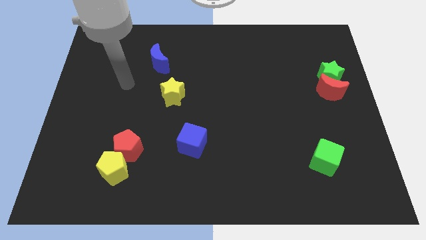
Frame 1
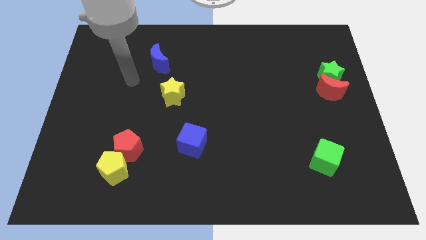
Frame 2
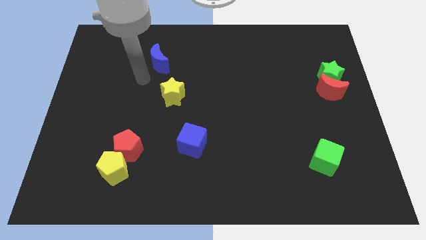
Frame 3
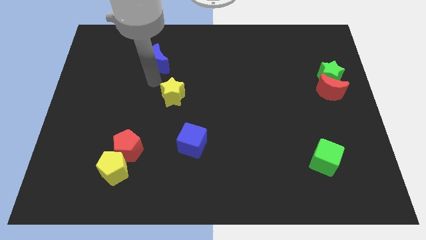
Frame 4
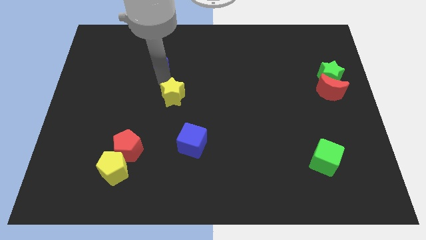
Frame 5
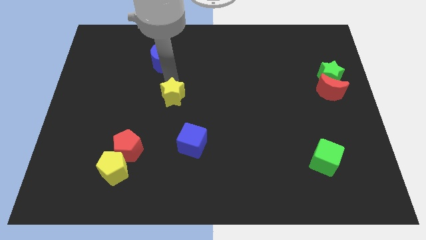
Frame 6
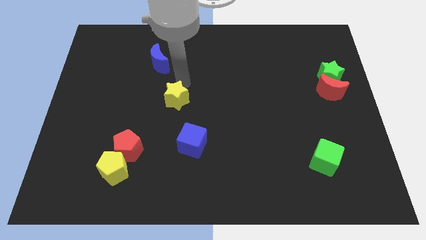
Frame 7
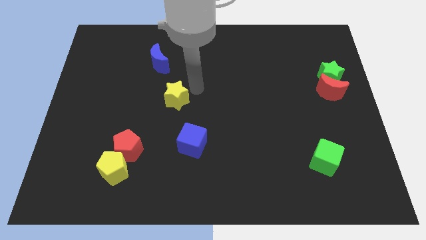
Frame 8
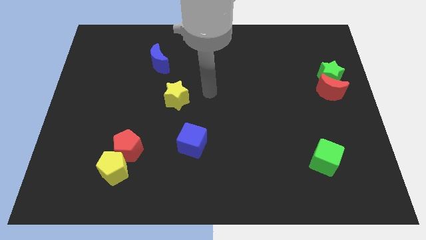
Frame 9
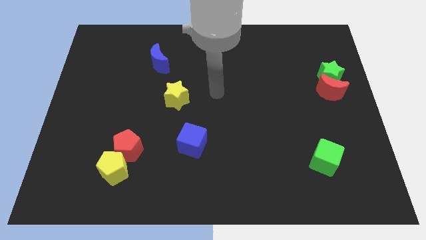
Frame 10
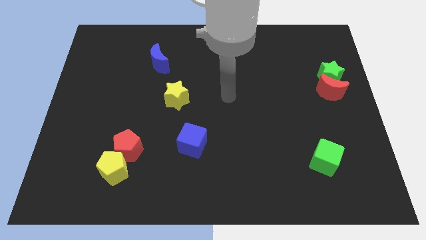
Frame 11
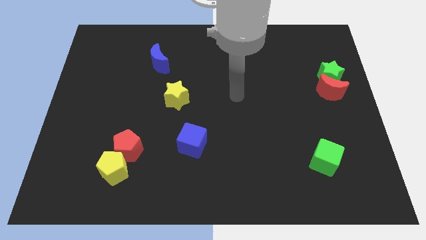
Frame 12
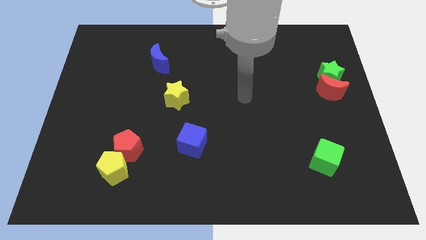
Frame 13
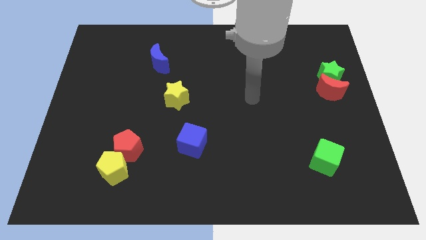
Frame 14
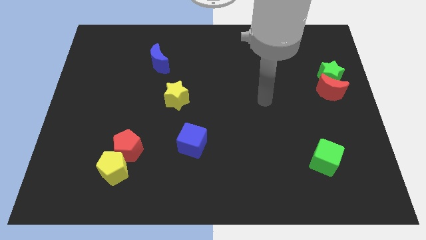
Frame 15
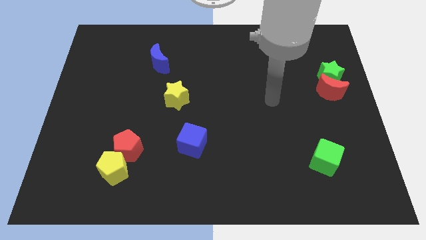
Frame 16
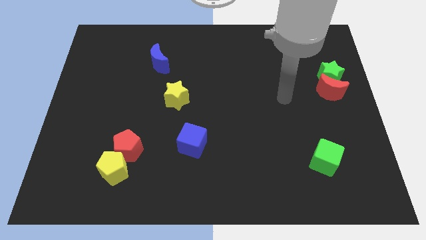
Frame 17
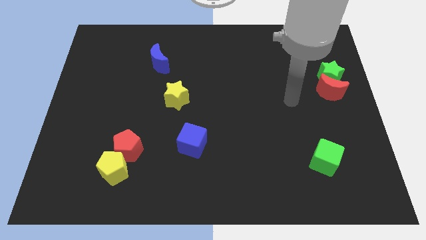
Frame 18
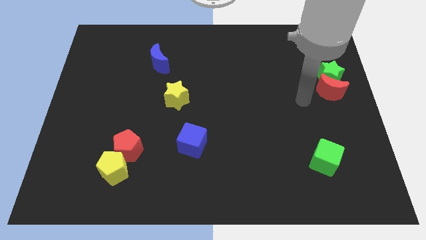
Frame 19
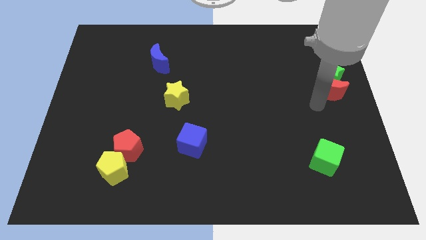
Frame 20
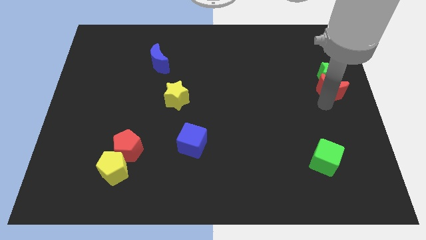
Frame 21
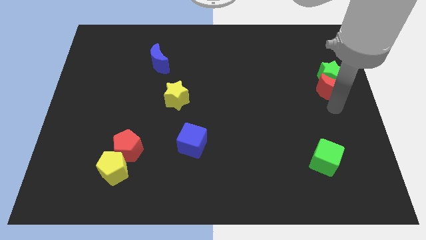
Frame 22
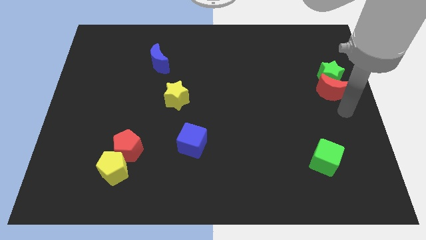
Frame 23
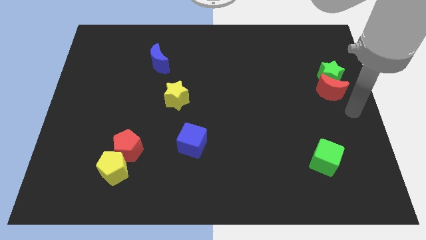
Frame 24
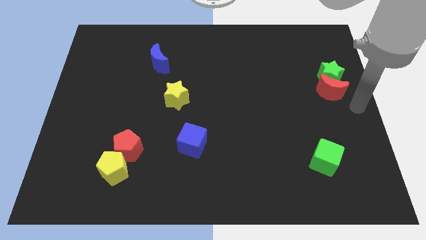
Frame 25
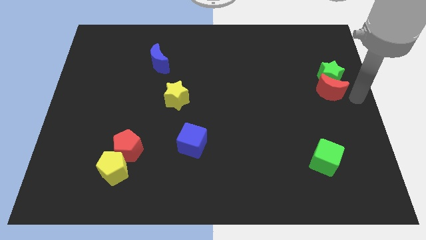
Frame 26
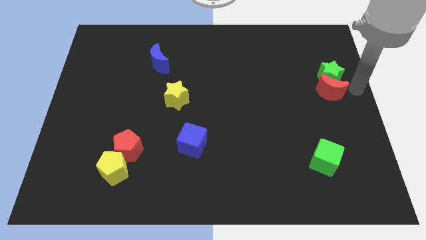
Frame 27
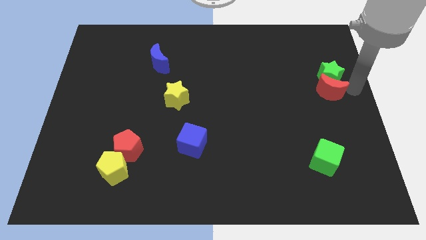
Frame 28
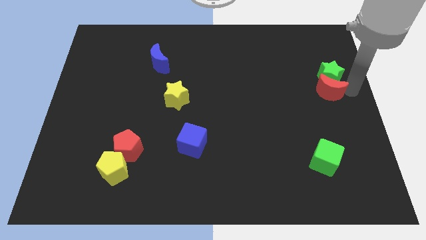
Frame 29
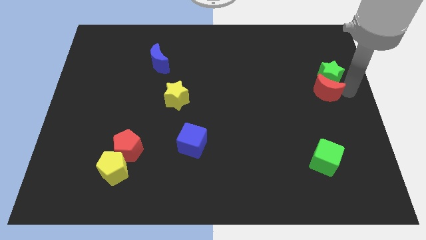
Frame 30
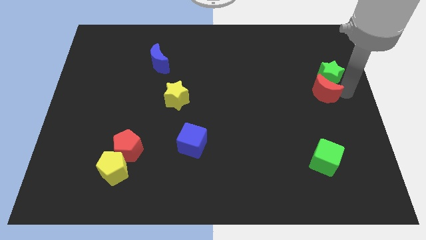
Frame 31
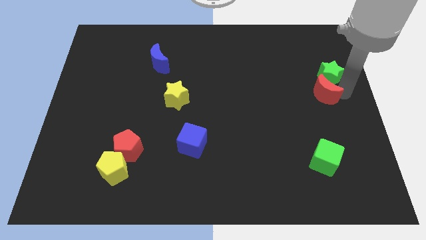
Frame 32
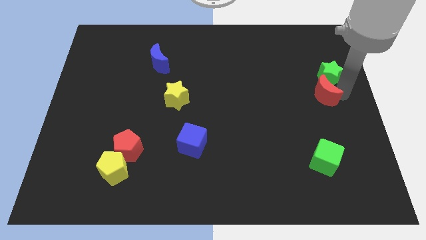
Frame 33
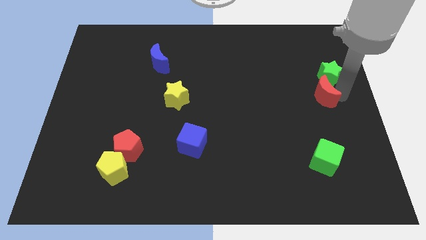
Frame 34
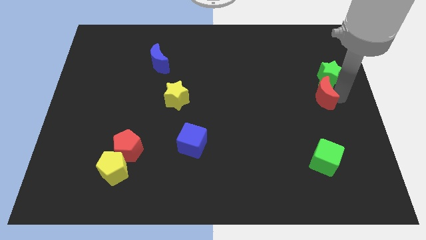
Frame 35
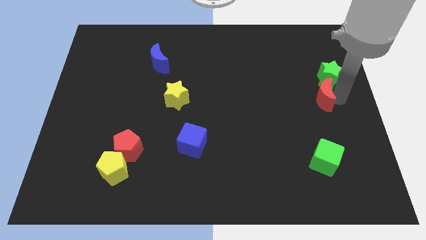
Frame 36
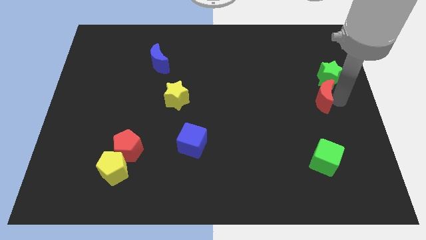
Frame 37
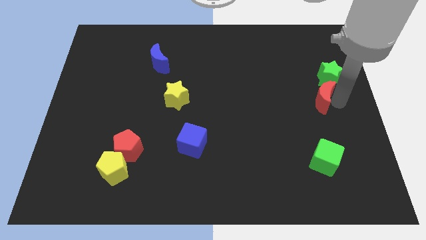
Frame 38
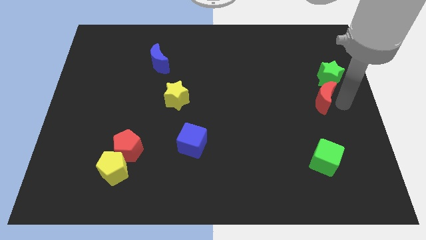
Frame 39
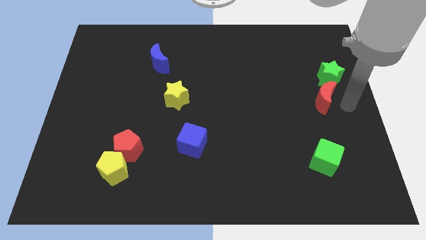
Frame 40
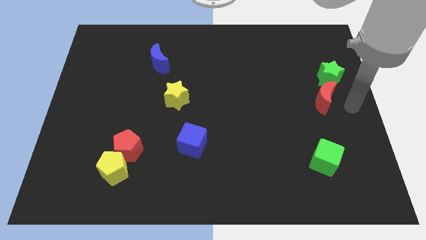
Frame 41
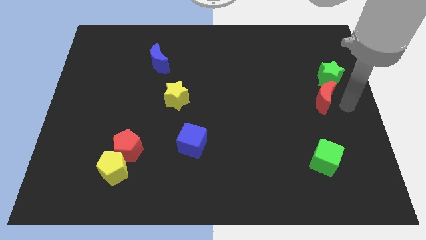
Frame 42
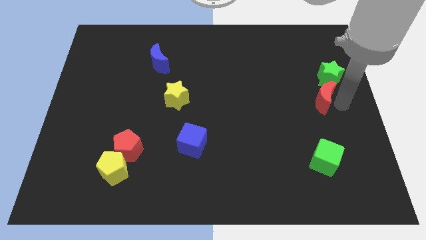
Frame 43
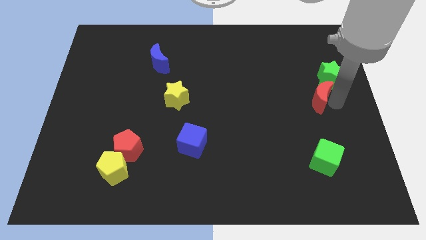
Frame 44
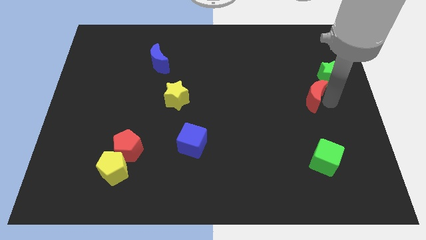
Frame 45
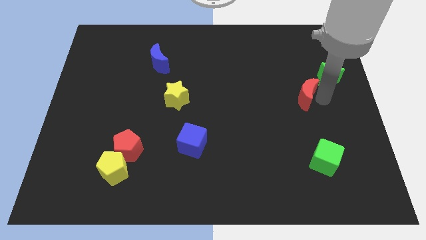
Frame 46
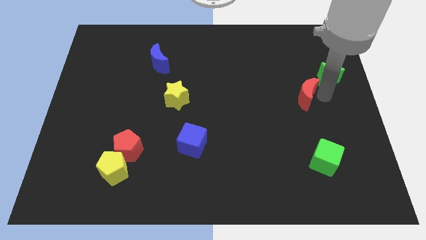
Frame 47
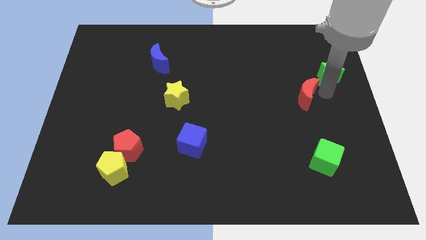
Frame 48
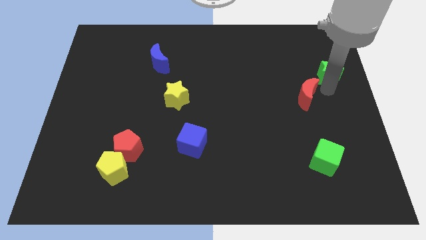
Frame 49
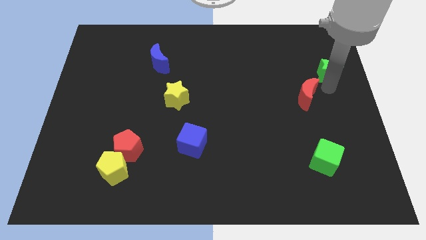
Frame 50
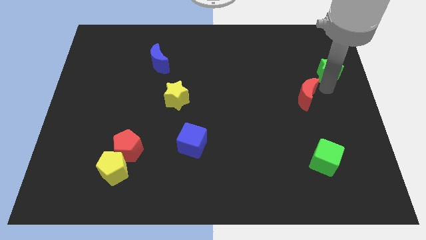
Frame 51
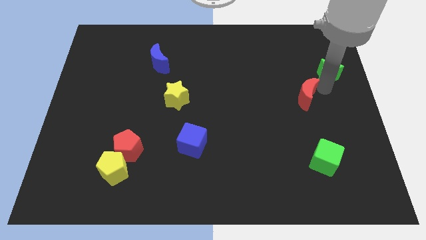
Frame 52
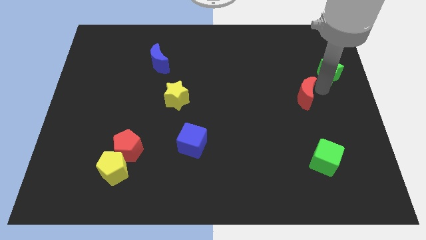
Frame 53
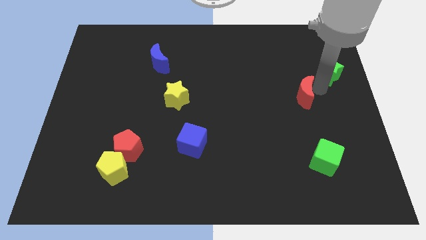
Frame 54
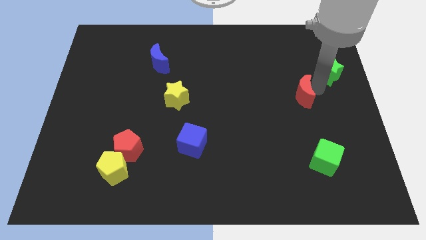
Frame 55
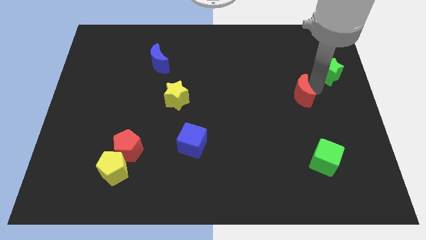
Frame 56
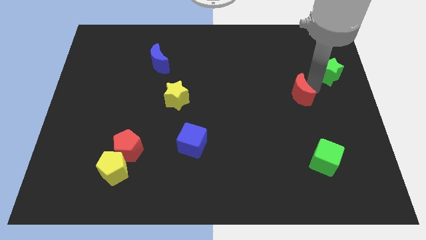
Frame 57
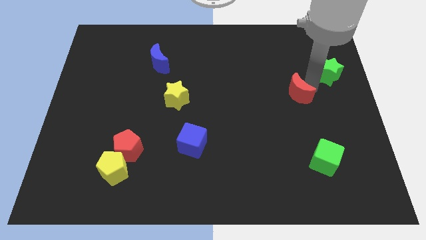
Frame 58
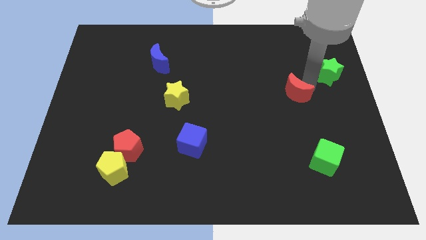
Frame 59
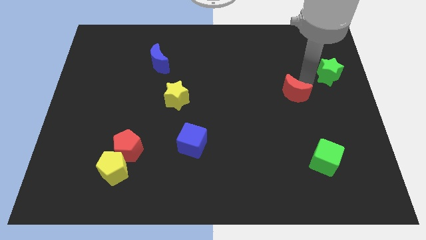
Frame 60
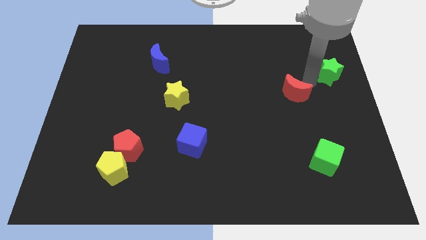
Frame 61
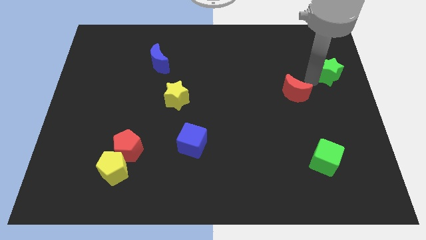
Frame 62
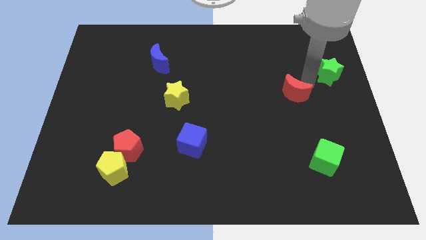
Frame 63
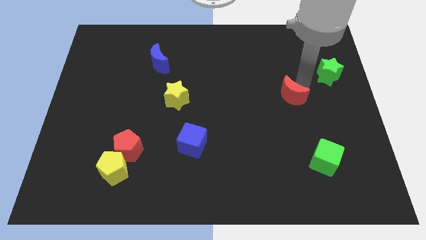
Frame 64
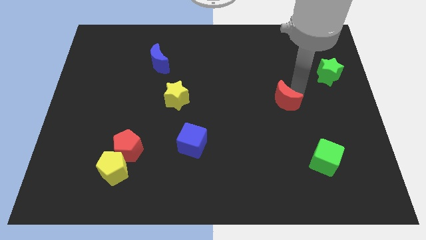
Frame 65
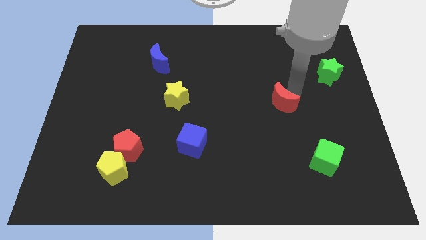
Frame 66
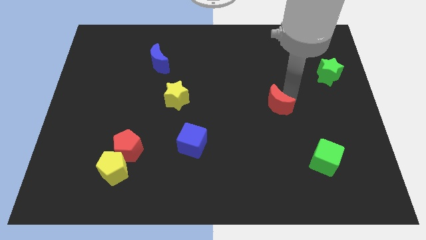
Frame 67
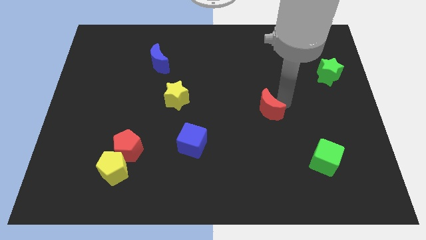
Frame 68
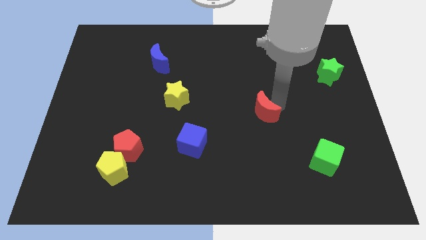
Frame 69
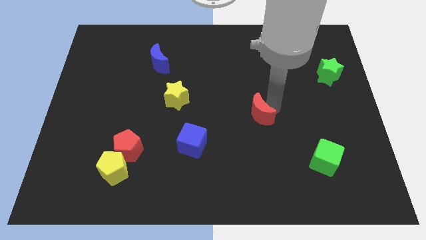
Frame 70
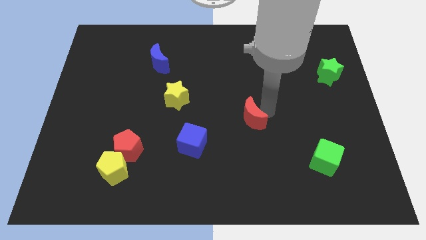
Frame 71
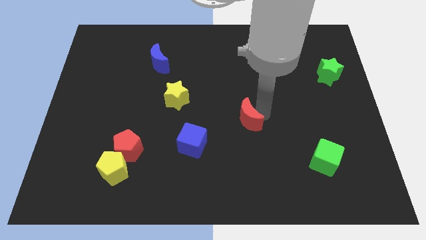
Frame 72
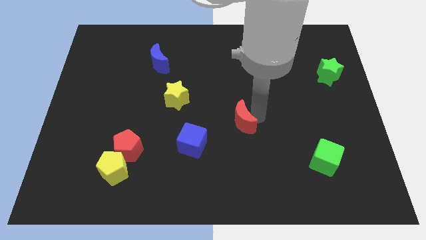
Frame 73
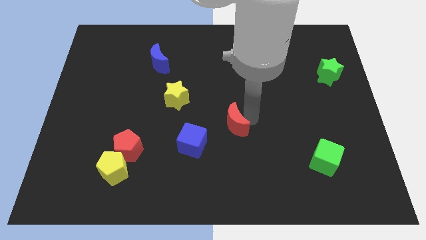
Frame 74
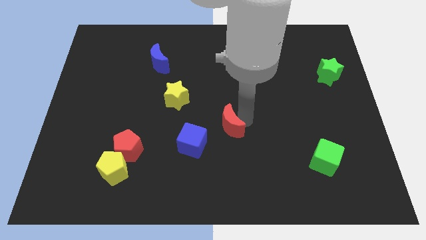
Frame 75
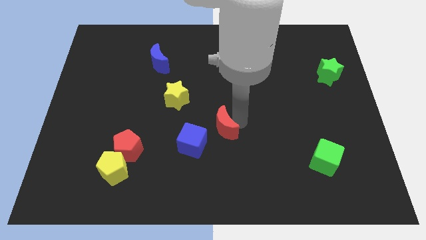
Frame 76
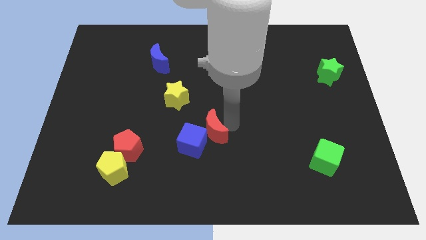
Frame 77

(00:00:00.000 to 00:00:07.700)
put the red moon towards the blue cube
